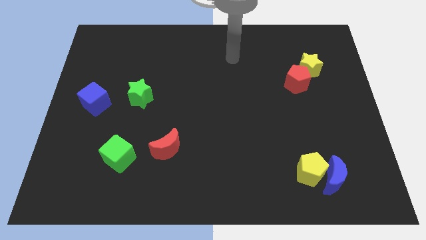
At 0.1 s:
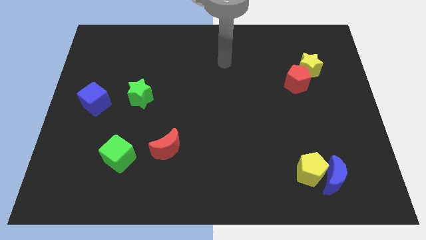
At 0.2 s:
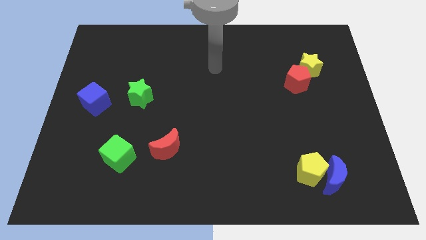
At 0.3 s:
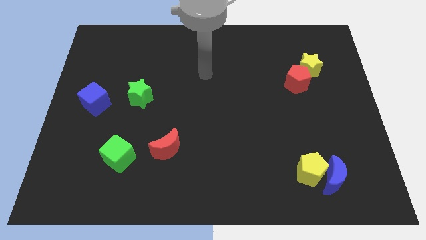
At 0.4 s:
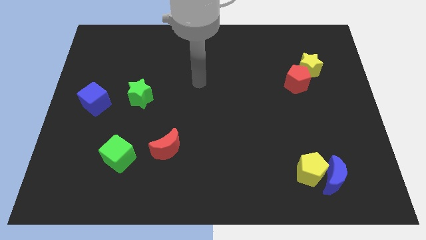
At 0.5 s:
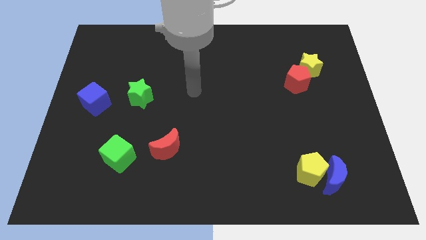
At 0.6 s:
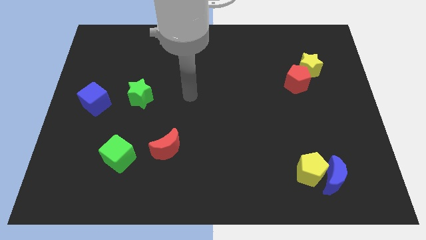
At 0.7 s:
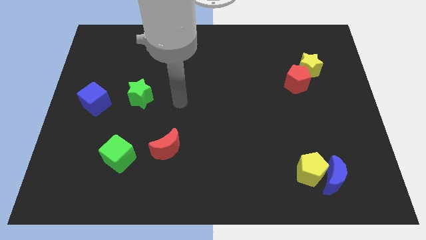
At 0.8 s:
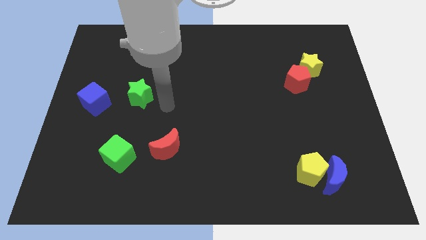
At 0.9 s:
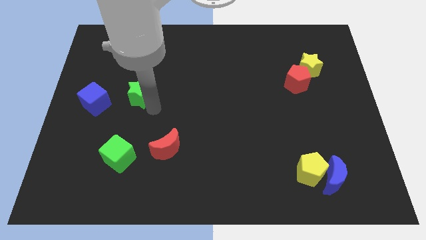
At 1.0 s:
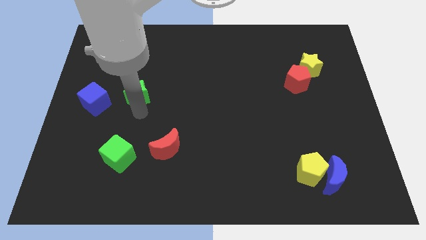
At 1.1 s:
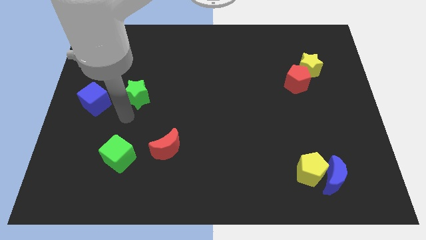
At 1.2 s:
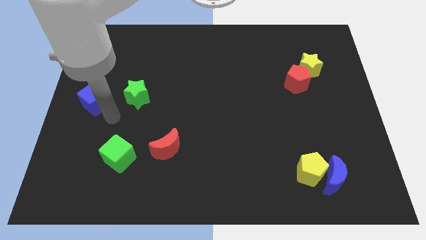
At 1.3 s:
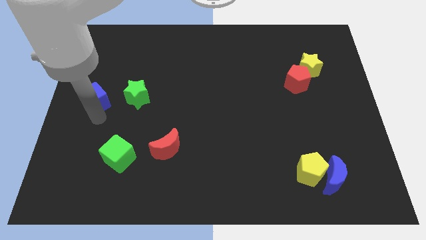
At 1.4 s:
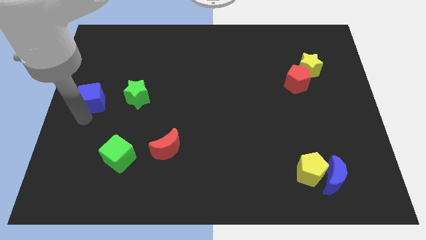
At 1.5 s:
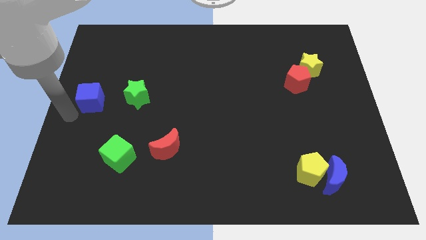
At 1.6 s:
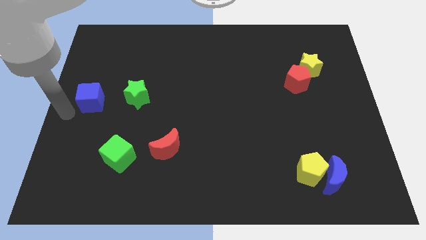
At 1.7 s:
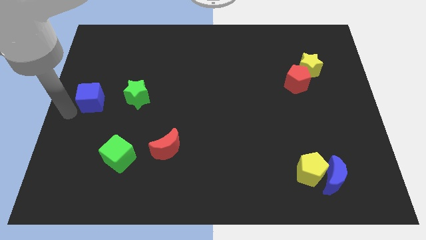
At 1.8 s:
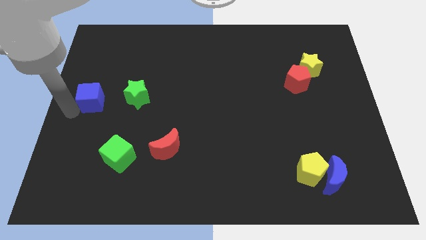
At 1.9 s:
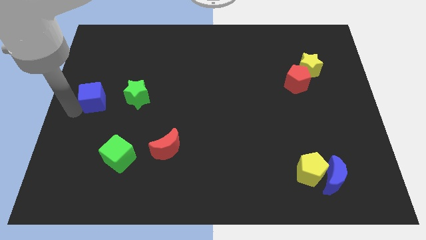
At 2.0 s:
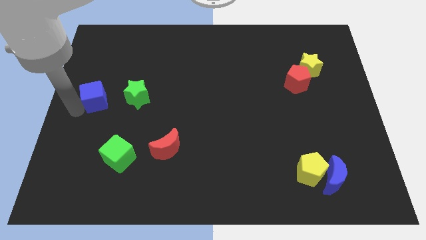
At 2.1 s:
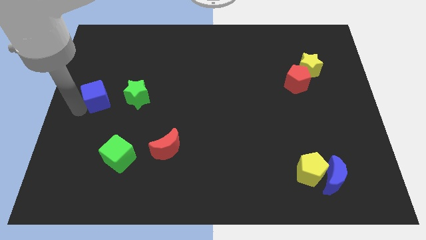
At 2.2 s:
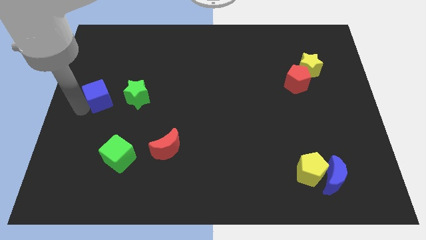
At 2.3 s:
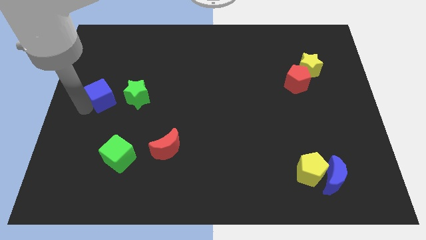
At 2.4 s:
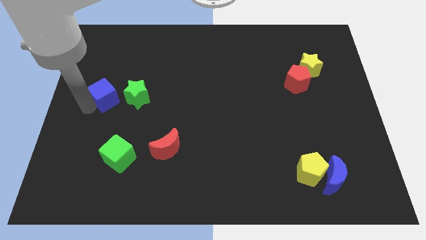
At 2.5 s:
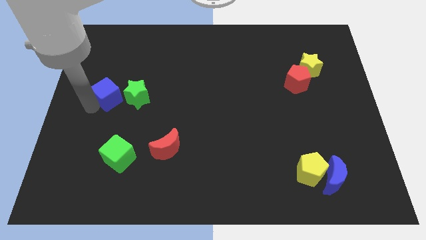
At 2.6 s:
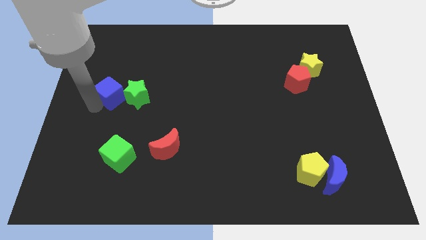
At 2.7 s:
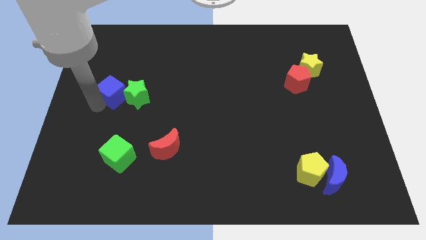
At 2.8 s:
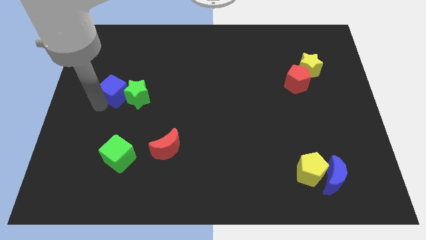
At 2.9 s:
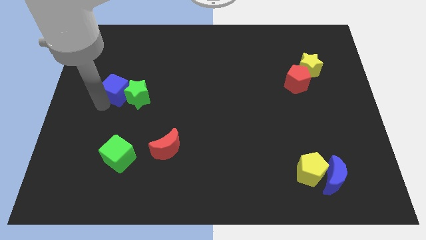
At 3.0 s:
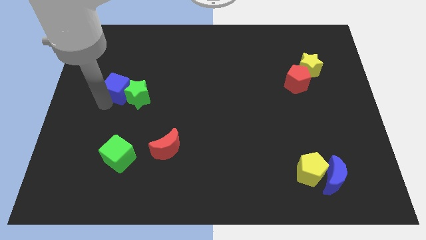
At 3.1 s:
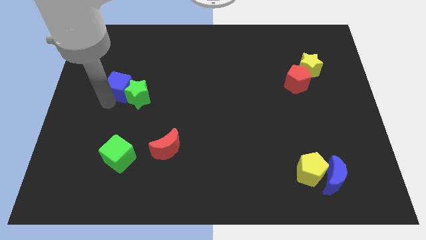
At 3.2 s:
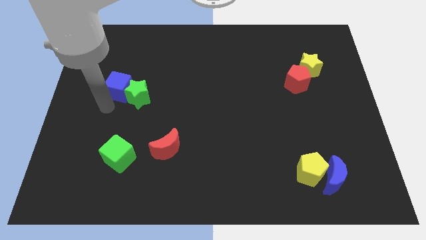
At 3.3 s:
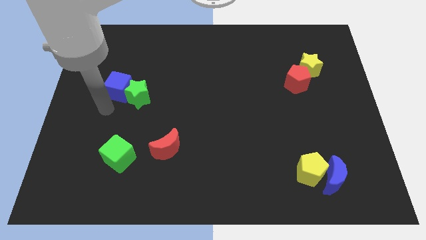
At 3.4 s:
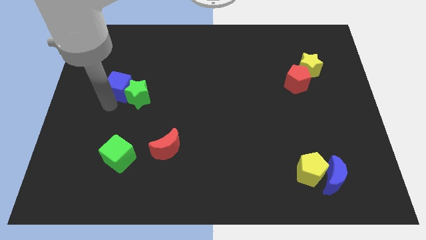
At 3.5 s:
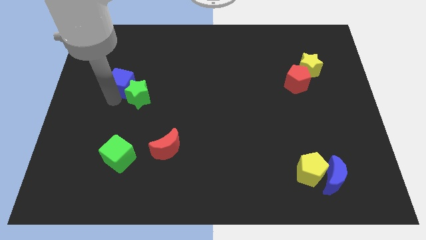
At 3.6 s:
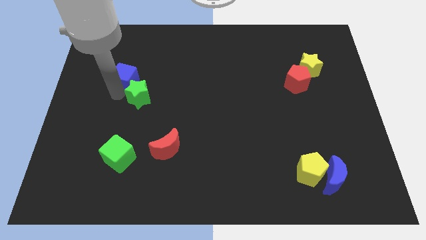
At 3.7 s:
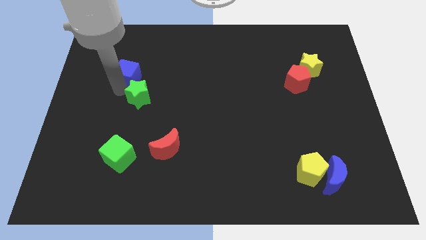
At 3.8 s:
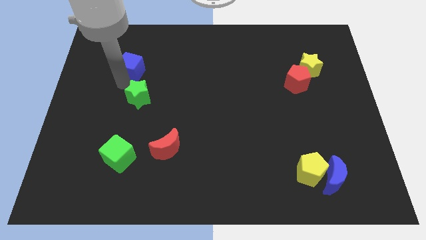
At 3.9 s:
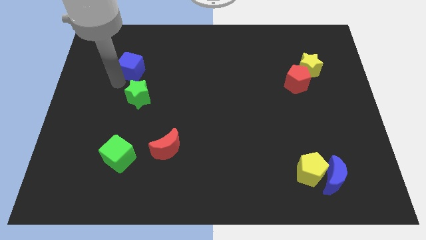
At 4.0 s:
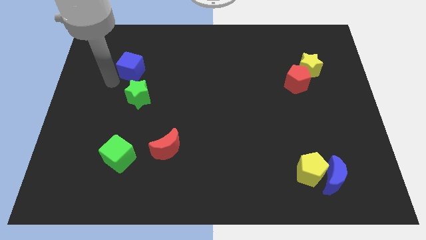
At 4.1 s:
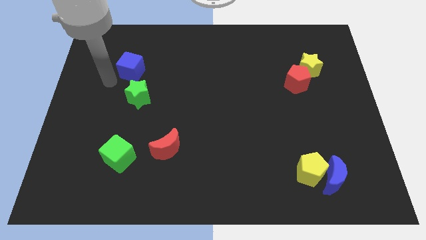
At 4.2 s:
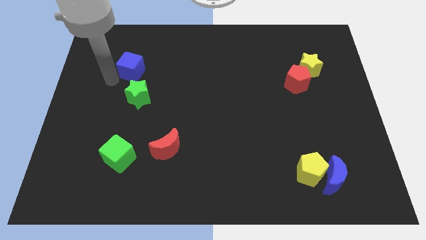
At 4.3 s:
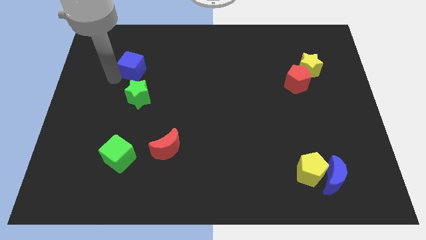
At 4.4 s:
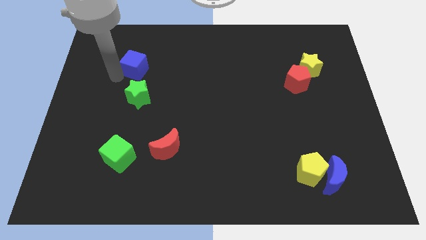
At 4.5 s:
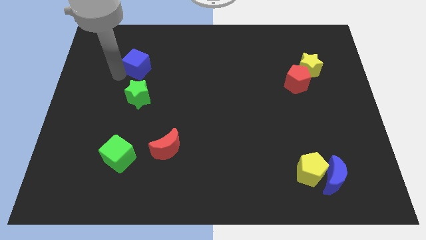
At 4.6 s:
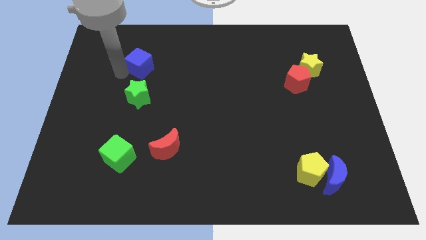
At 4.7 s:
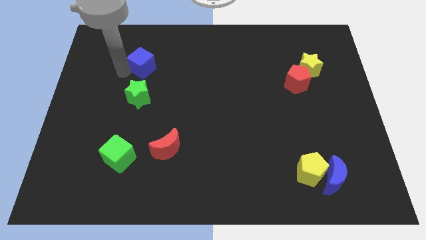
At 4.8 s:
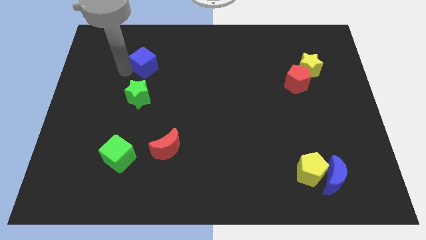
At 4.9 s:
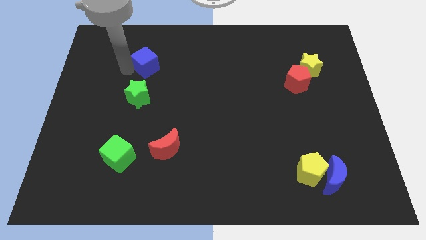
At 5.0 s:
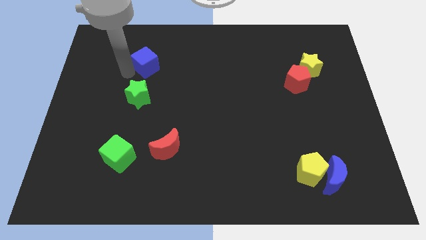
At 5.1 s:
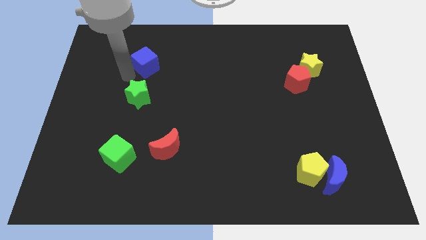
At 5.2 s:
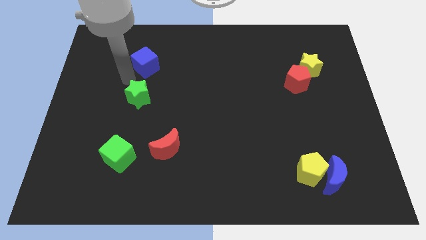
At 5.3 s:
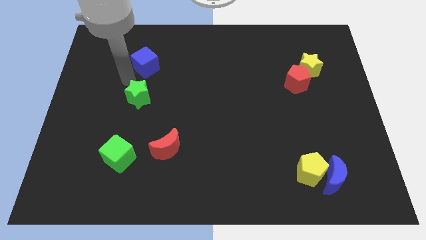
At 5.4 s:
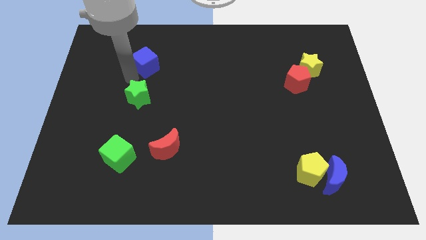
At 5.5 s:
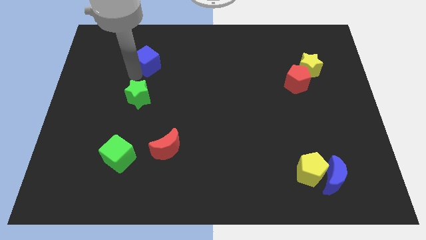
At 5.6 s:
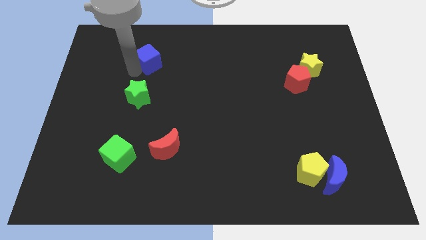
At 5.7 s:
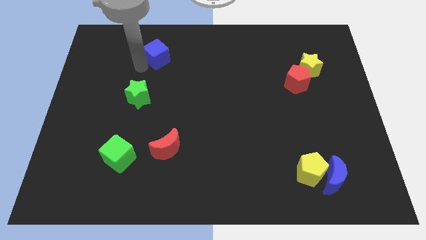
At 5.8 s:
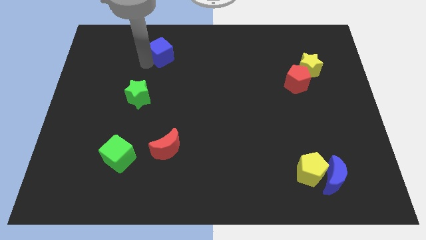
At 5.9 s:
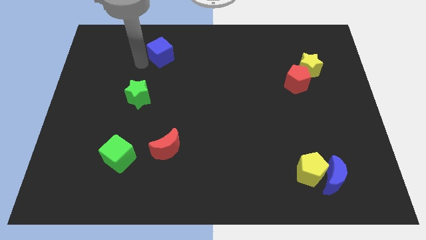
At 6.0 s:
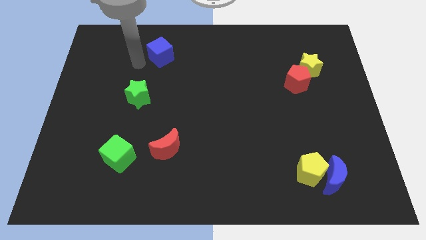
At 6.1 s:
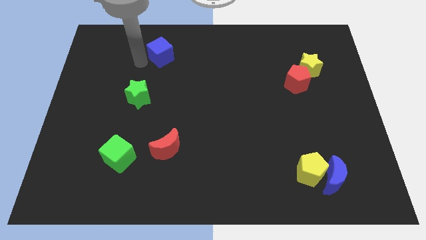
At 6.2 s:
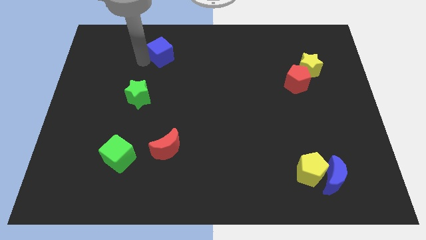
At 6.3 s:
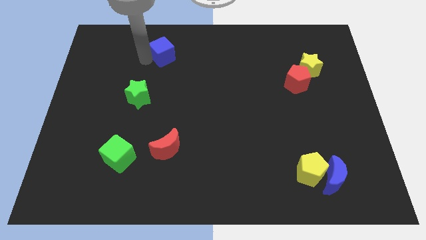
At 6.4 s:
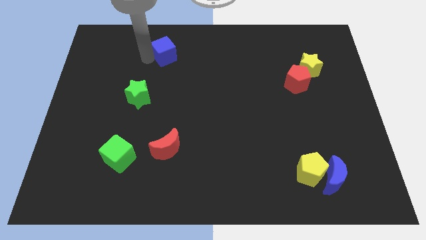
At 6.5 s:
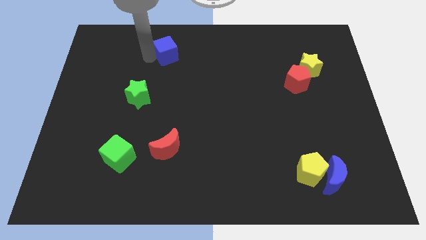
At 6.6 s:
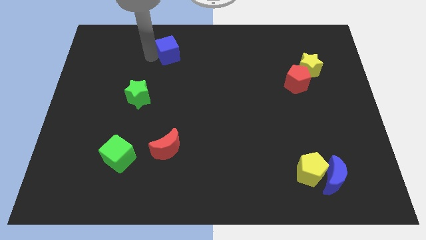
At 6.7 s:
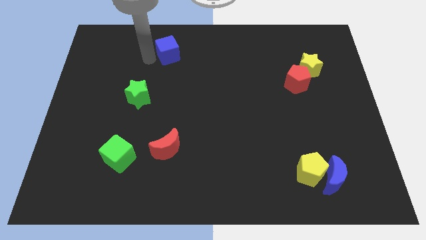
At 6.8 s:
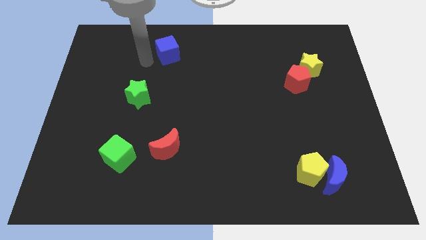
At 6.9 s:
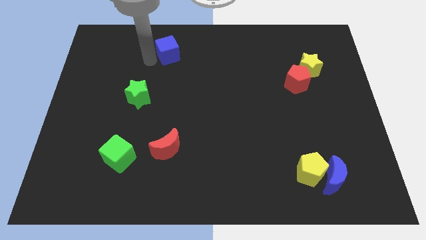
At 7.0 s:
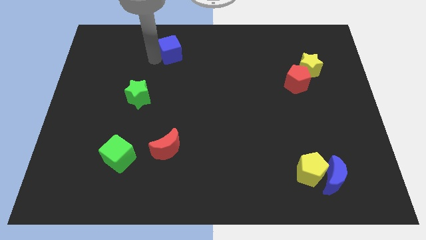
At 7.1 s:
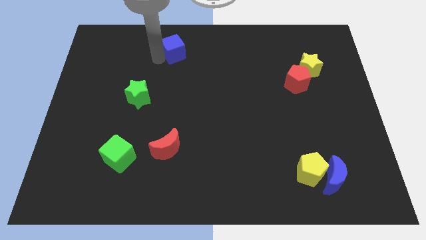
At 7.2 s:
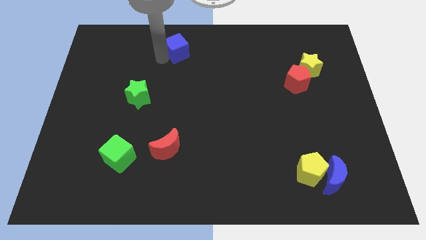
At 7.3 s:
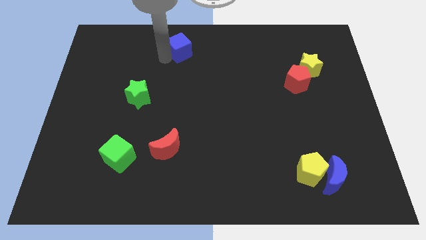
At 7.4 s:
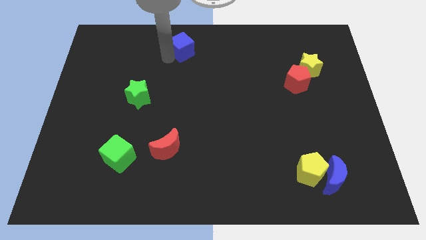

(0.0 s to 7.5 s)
push the blue cube to the top
